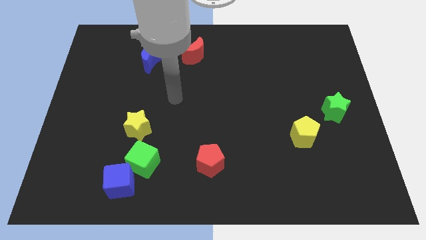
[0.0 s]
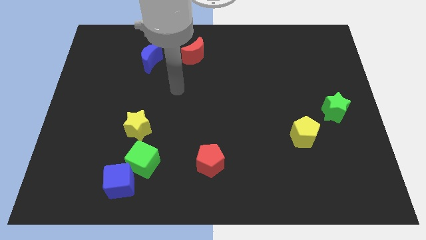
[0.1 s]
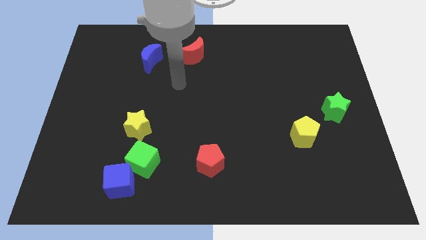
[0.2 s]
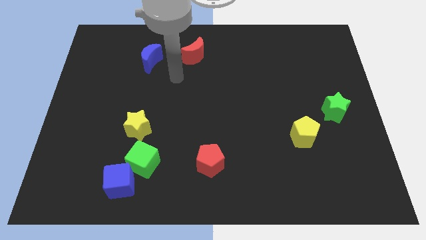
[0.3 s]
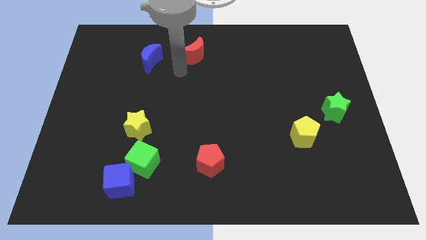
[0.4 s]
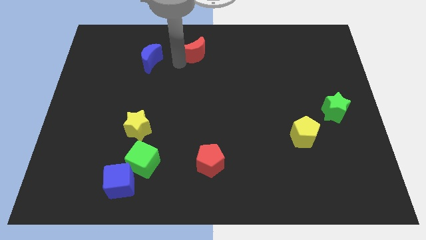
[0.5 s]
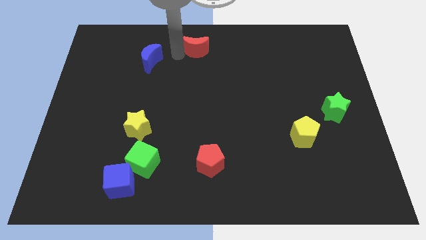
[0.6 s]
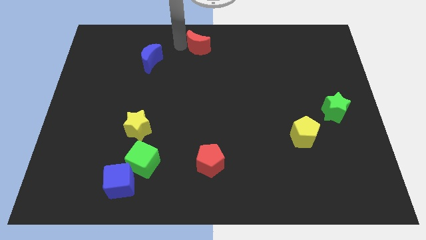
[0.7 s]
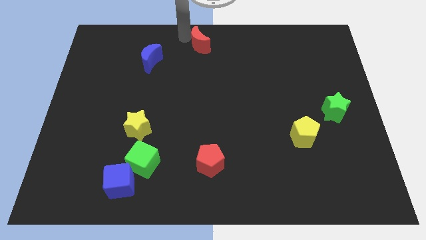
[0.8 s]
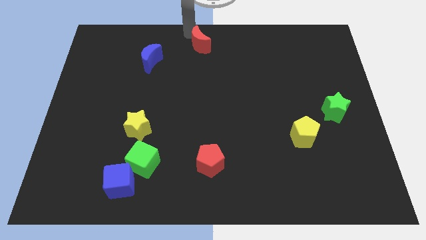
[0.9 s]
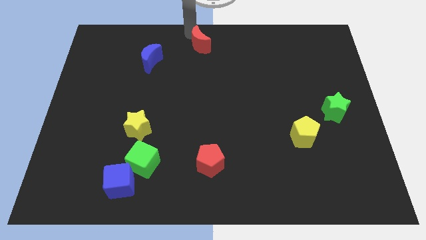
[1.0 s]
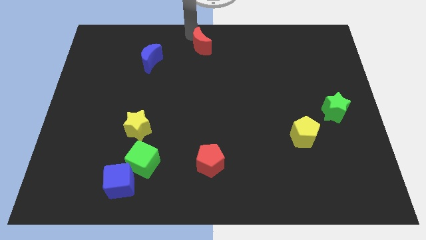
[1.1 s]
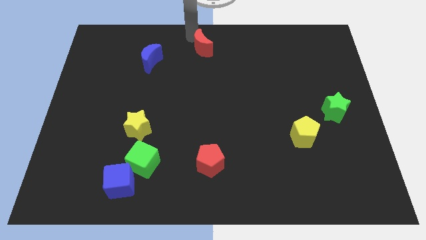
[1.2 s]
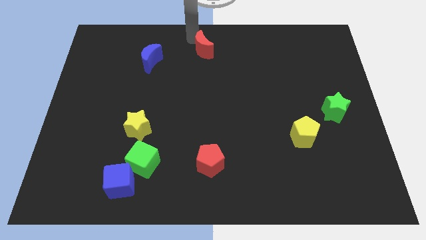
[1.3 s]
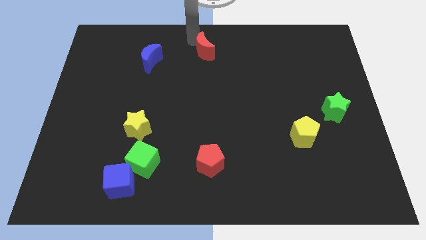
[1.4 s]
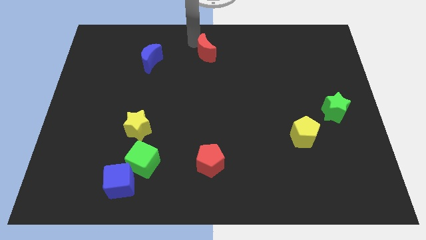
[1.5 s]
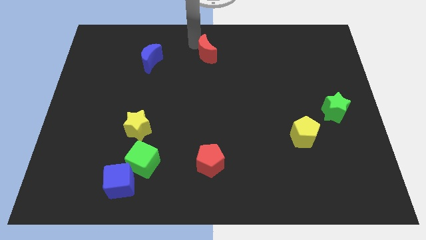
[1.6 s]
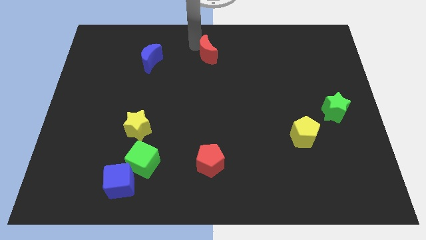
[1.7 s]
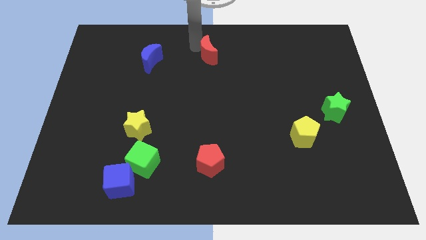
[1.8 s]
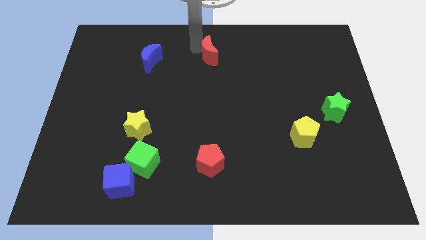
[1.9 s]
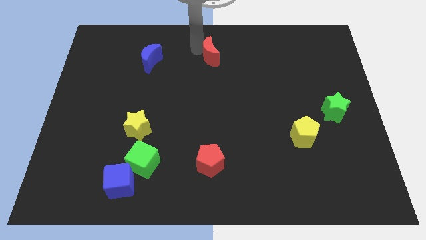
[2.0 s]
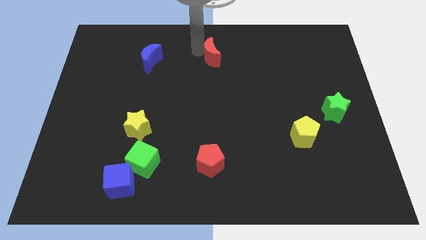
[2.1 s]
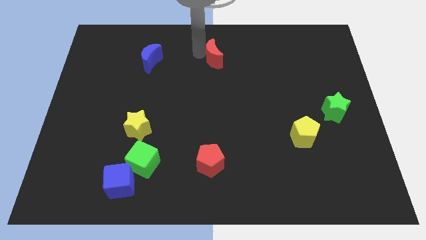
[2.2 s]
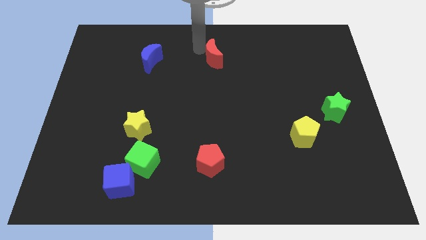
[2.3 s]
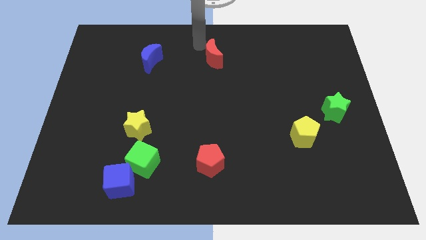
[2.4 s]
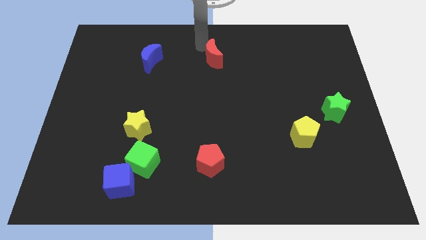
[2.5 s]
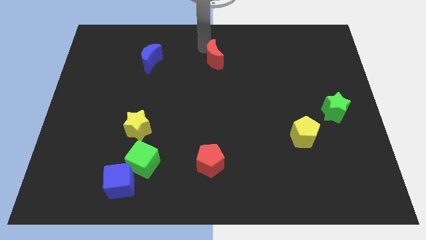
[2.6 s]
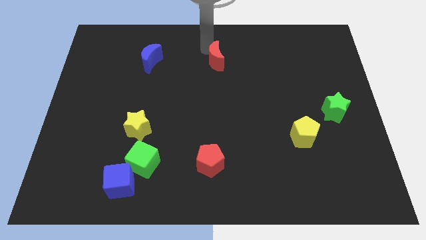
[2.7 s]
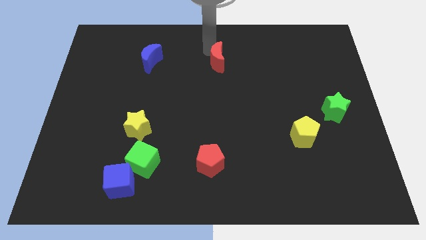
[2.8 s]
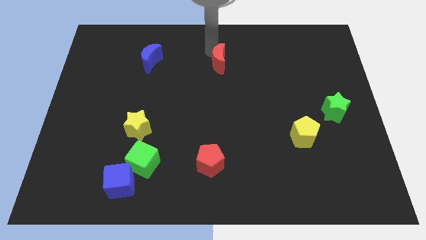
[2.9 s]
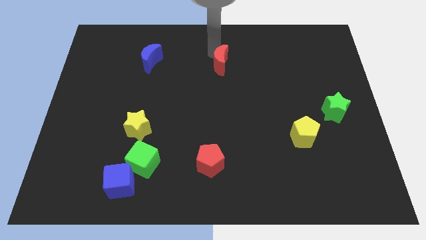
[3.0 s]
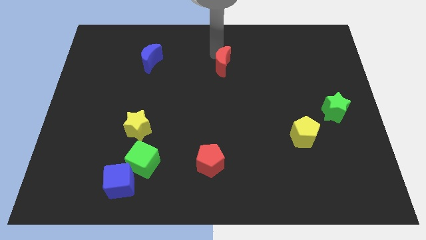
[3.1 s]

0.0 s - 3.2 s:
move the red moon a little downwards and then right

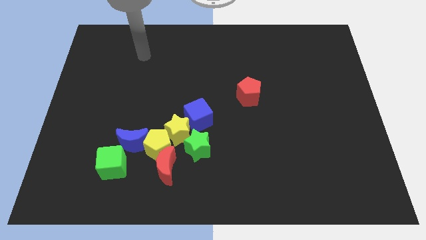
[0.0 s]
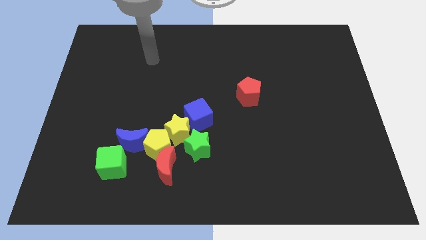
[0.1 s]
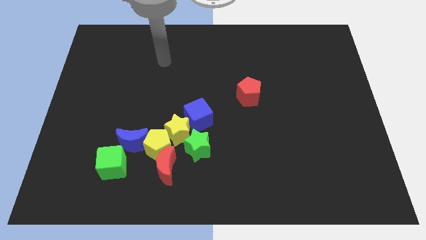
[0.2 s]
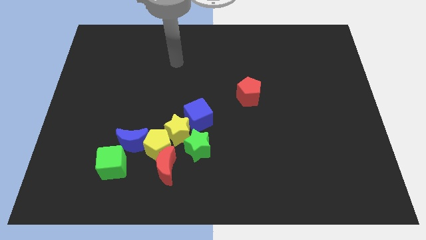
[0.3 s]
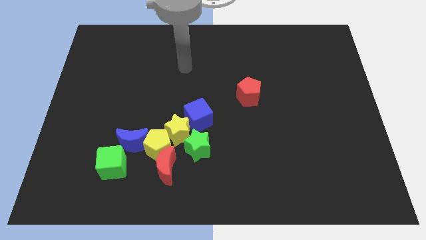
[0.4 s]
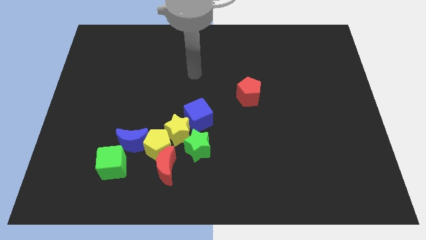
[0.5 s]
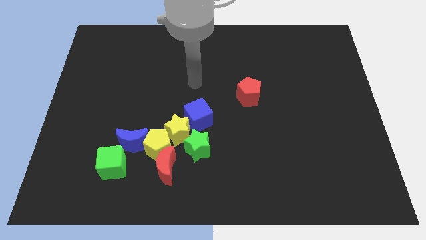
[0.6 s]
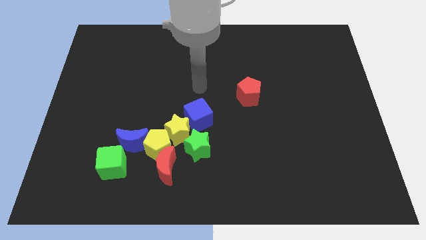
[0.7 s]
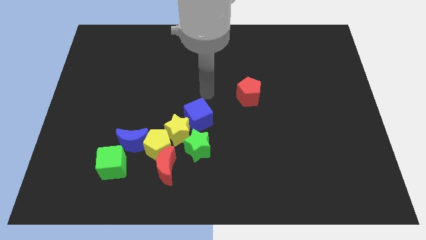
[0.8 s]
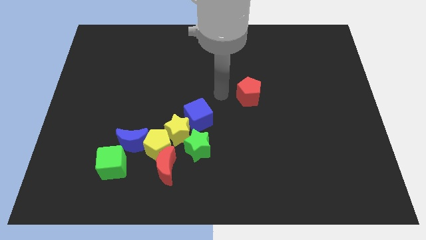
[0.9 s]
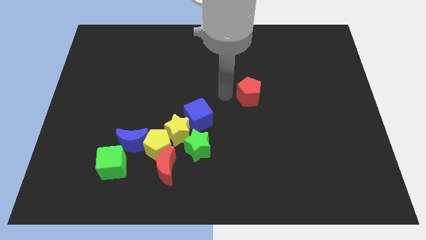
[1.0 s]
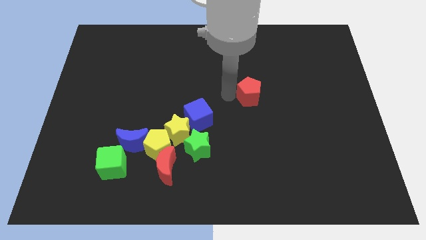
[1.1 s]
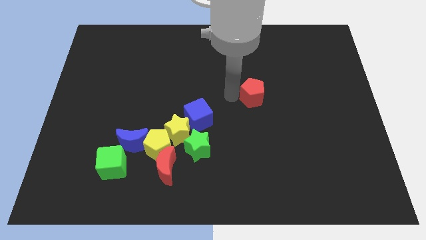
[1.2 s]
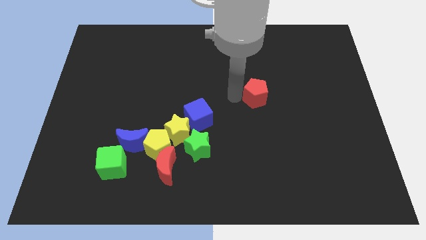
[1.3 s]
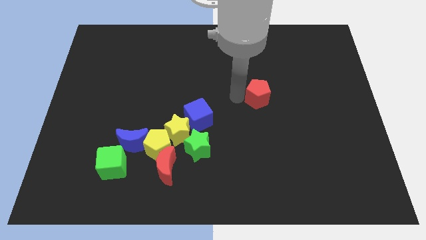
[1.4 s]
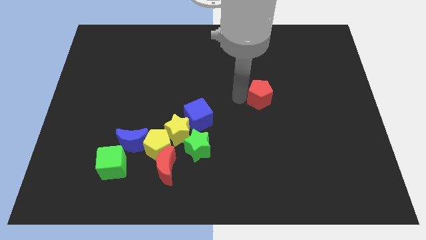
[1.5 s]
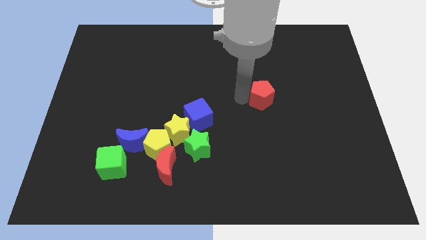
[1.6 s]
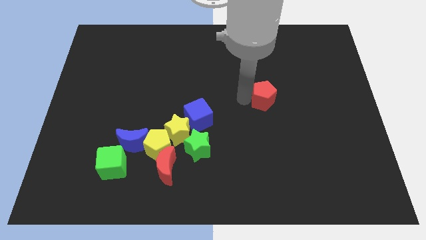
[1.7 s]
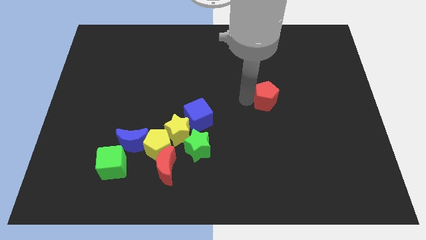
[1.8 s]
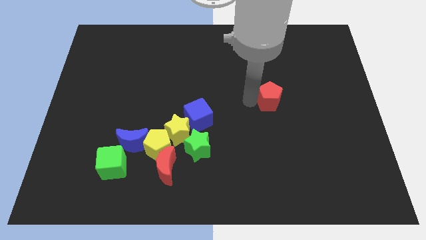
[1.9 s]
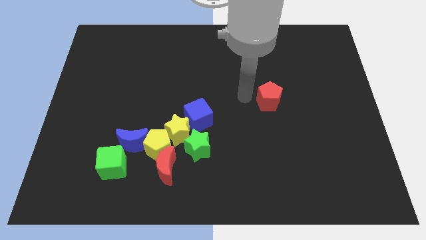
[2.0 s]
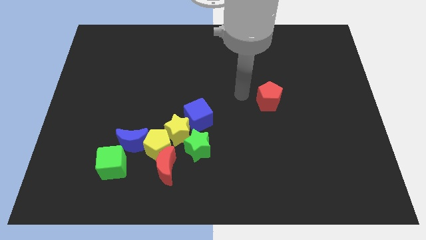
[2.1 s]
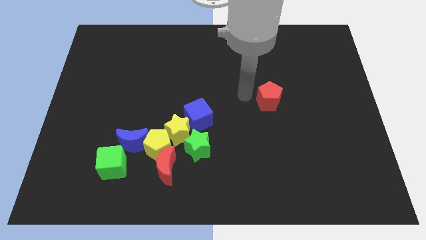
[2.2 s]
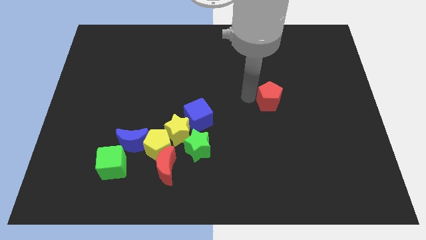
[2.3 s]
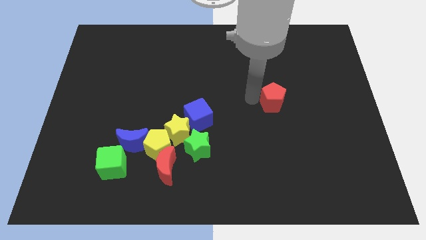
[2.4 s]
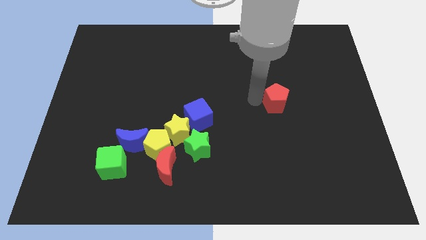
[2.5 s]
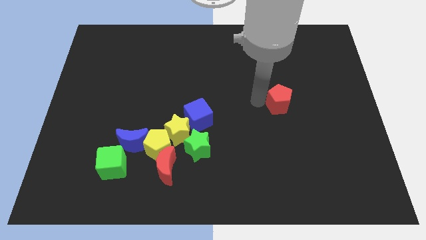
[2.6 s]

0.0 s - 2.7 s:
push the red pentagon a little to the right

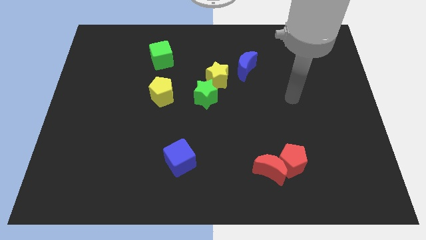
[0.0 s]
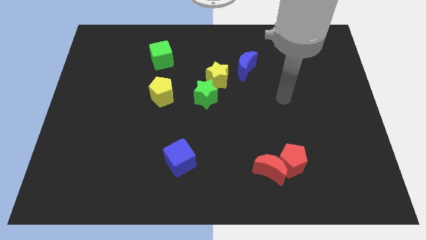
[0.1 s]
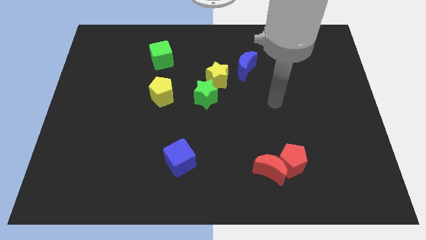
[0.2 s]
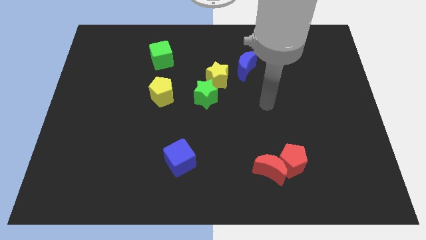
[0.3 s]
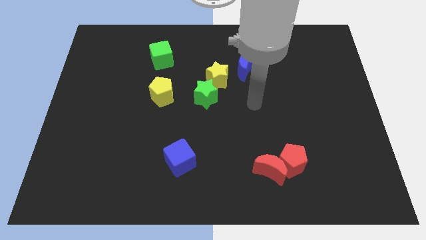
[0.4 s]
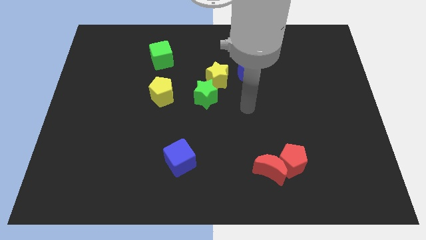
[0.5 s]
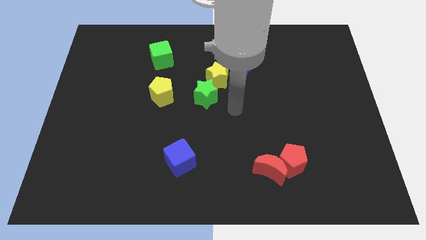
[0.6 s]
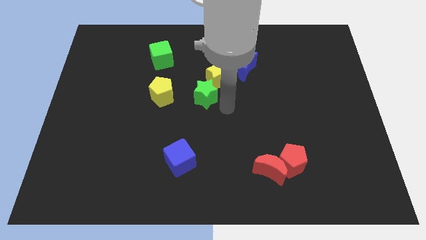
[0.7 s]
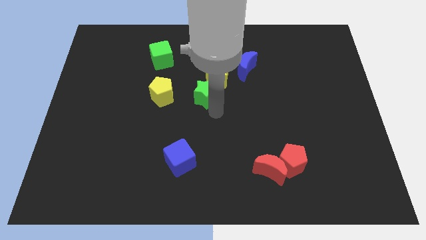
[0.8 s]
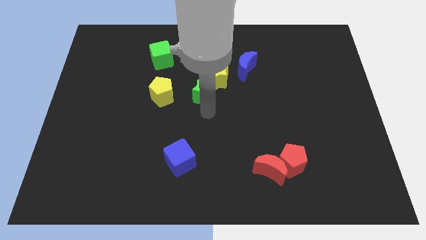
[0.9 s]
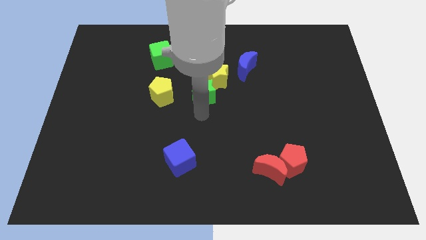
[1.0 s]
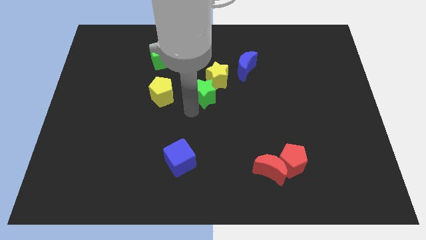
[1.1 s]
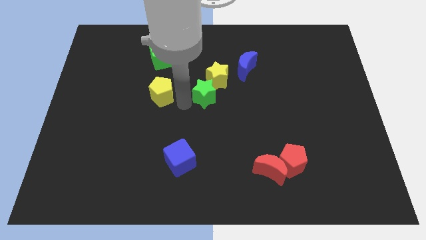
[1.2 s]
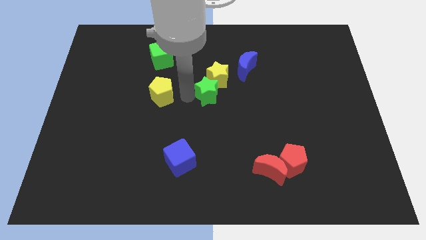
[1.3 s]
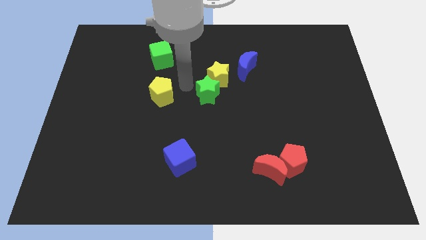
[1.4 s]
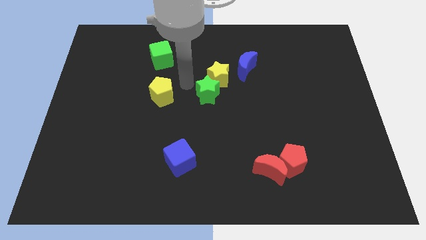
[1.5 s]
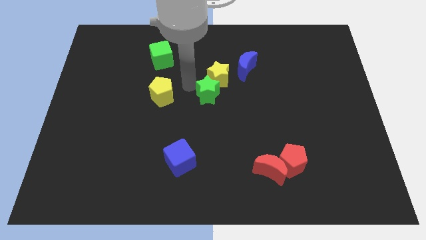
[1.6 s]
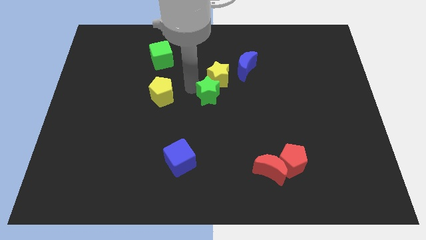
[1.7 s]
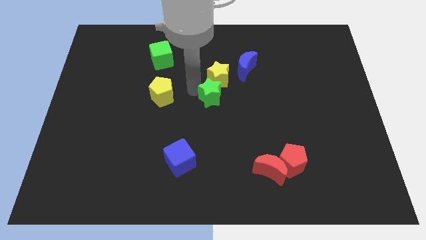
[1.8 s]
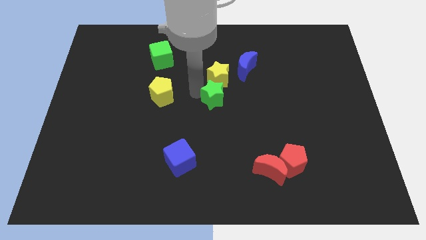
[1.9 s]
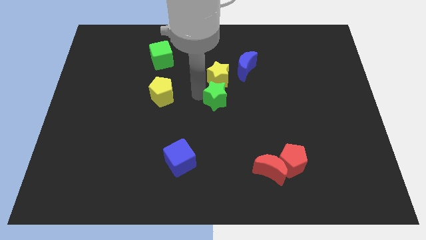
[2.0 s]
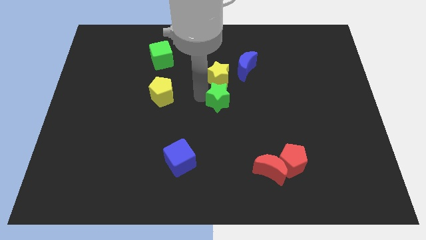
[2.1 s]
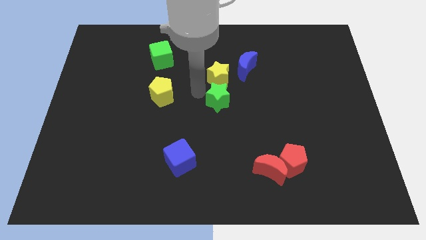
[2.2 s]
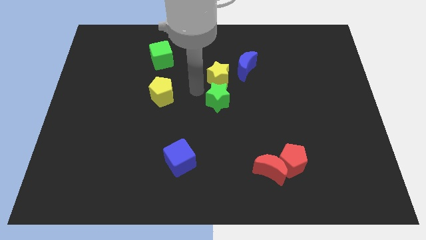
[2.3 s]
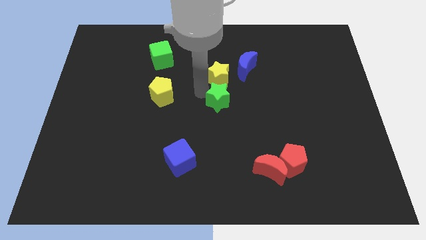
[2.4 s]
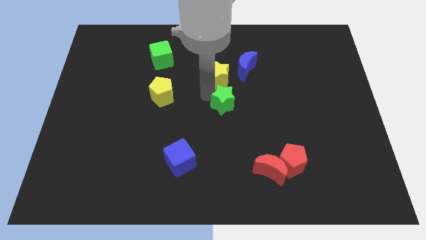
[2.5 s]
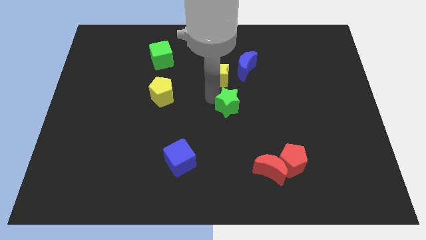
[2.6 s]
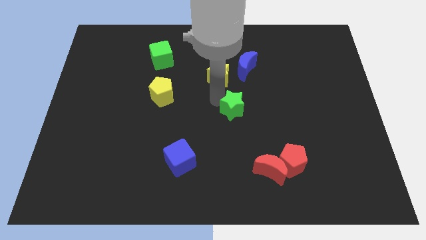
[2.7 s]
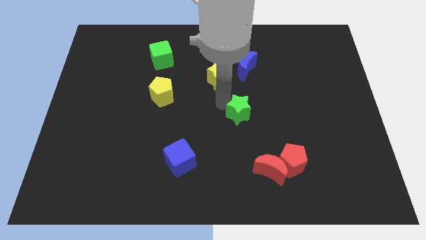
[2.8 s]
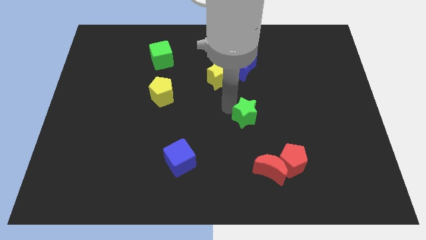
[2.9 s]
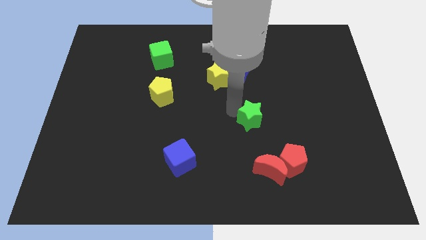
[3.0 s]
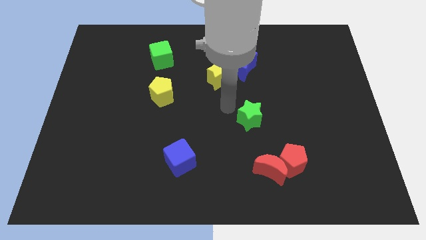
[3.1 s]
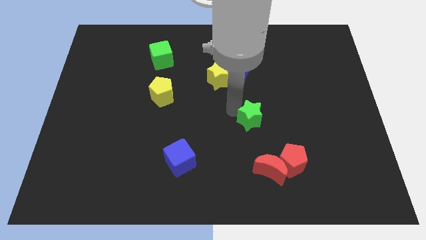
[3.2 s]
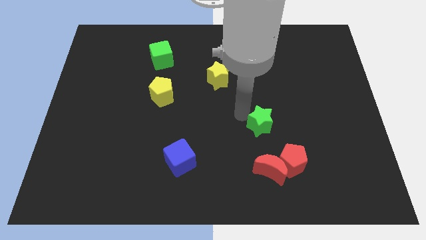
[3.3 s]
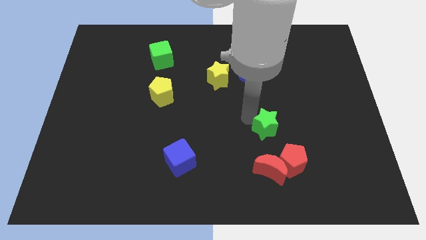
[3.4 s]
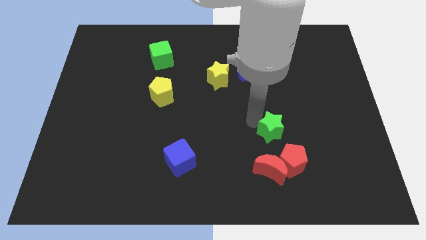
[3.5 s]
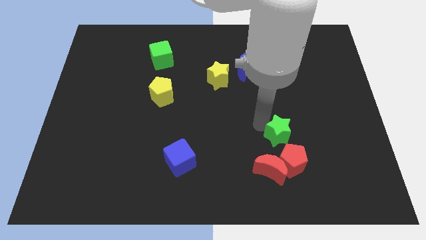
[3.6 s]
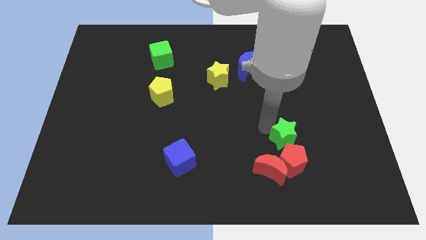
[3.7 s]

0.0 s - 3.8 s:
push the green star downwards and then to the right
